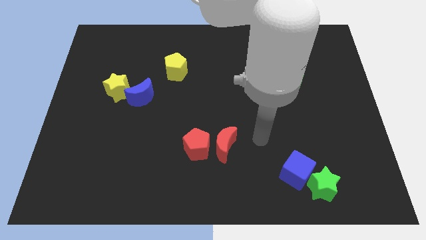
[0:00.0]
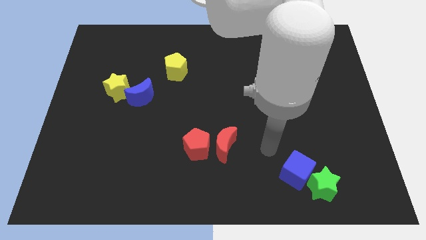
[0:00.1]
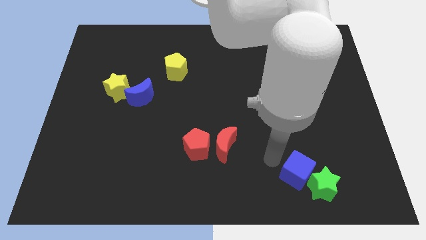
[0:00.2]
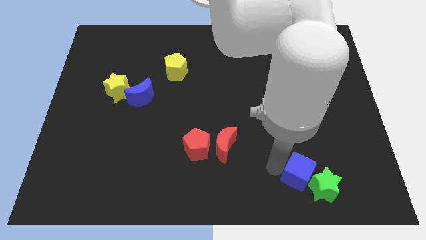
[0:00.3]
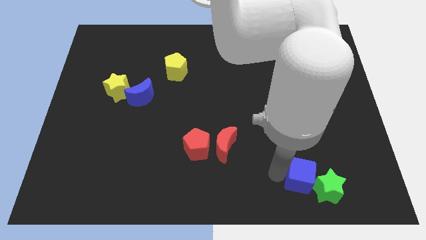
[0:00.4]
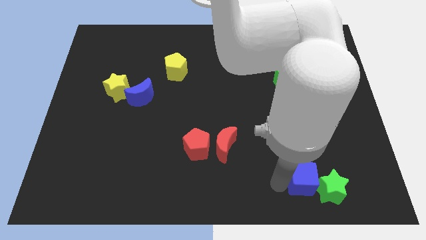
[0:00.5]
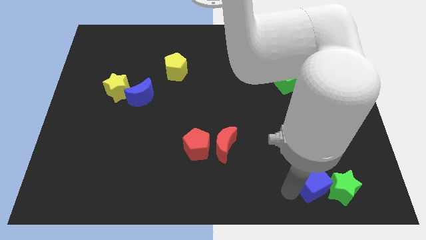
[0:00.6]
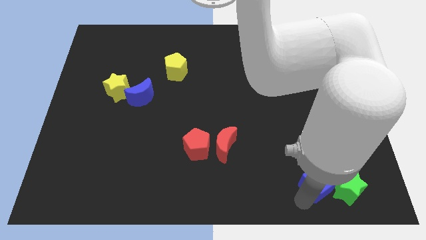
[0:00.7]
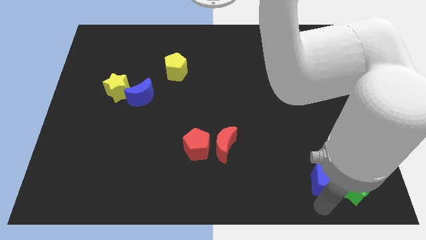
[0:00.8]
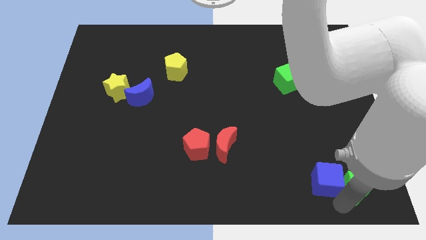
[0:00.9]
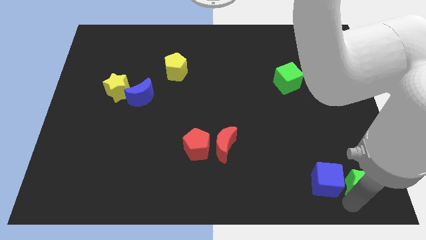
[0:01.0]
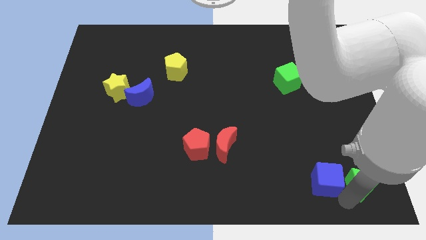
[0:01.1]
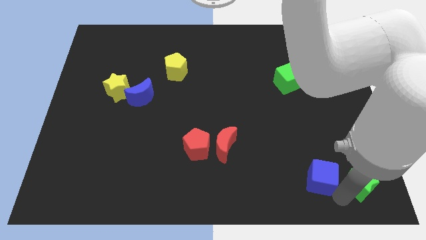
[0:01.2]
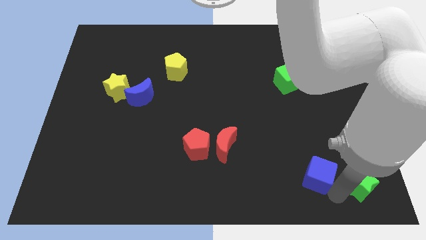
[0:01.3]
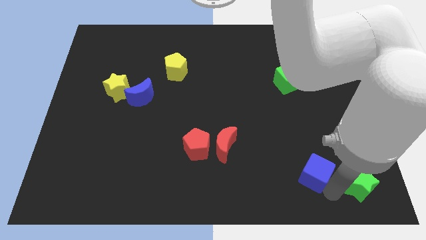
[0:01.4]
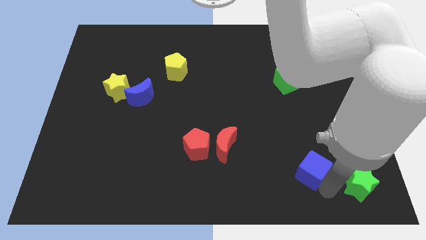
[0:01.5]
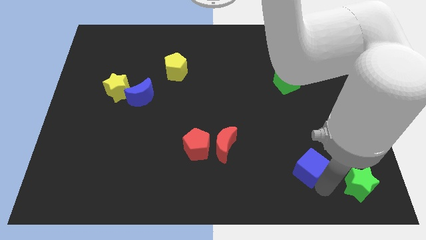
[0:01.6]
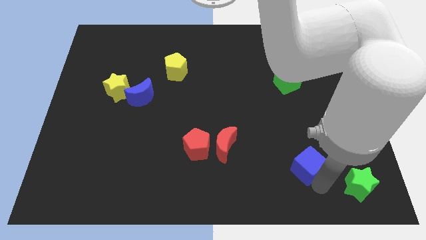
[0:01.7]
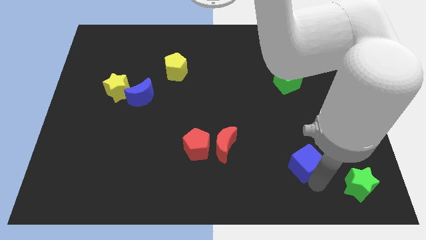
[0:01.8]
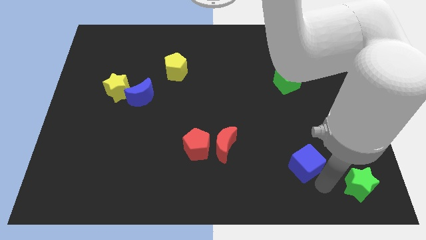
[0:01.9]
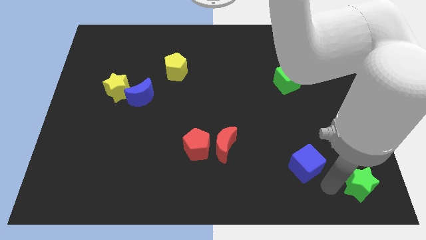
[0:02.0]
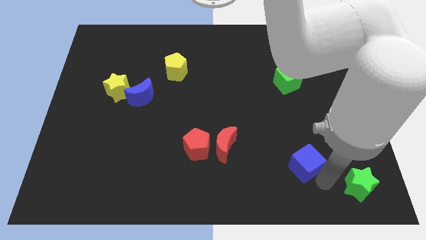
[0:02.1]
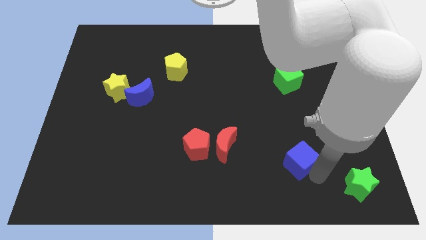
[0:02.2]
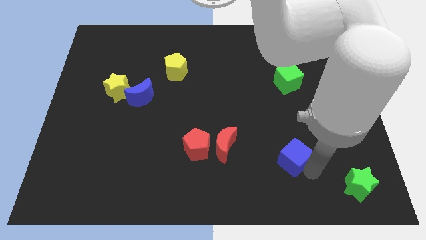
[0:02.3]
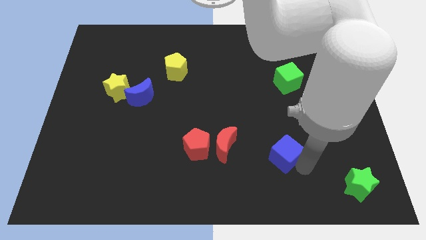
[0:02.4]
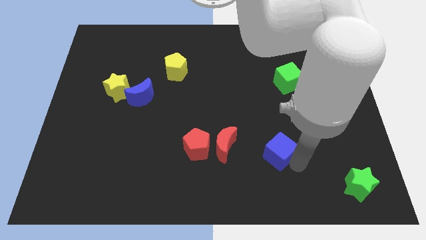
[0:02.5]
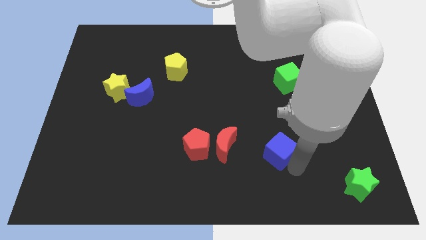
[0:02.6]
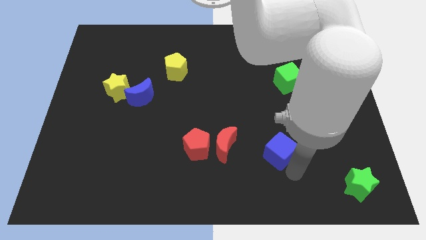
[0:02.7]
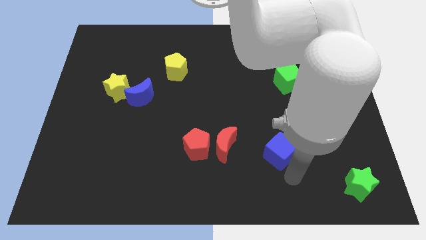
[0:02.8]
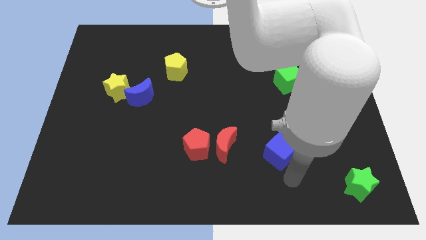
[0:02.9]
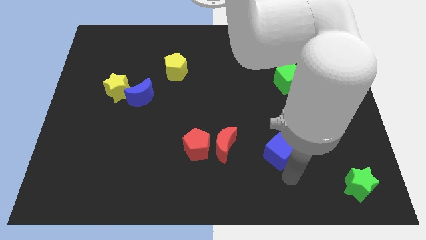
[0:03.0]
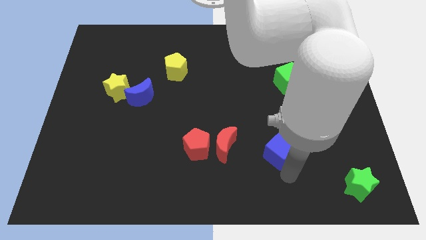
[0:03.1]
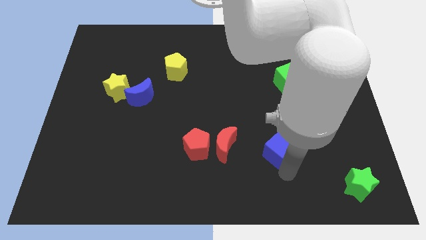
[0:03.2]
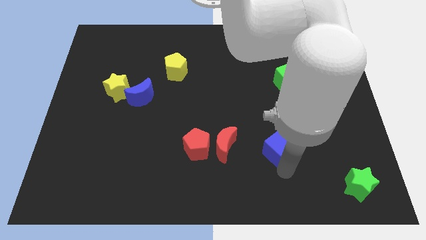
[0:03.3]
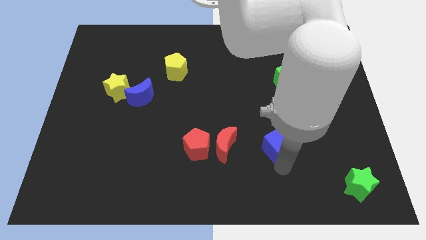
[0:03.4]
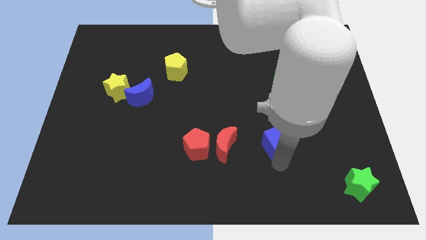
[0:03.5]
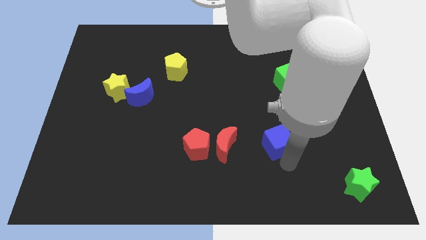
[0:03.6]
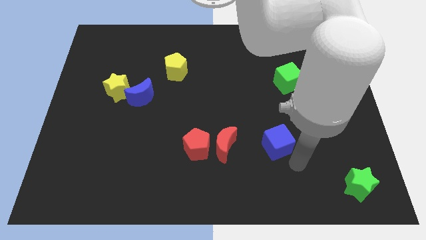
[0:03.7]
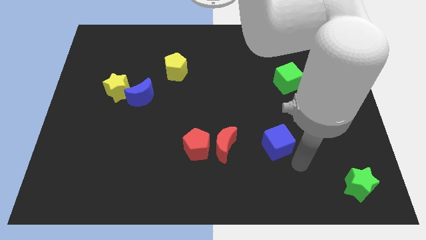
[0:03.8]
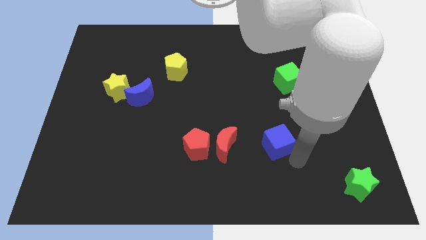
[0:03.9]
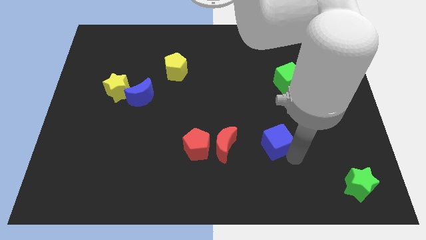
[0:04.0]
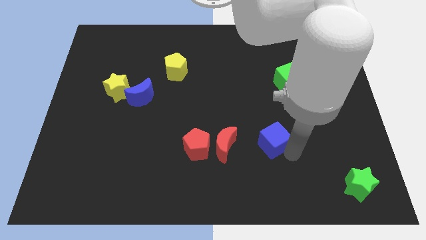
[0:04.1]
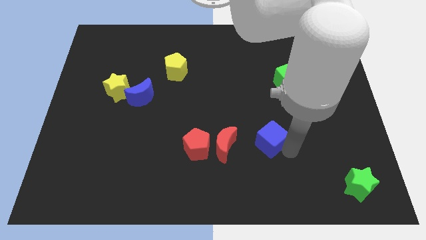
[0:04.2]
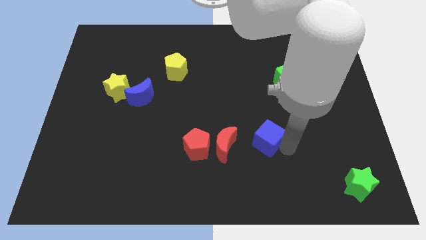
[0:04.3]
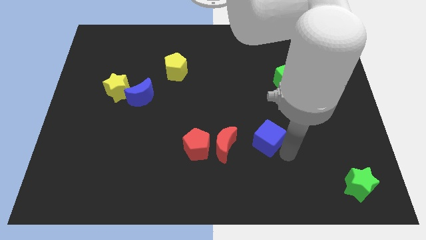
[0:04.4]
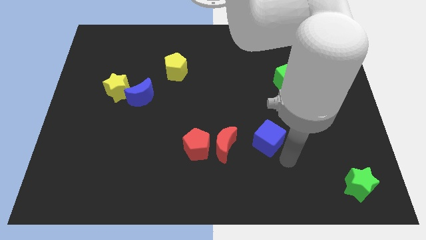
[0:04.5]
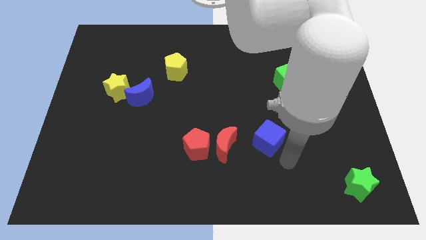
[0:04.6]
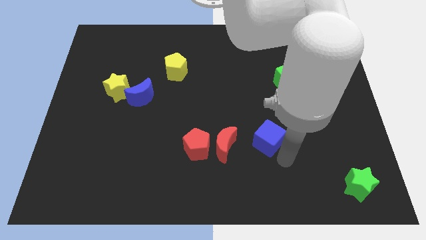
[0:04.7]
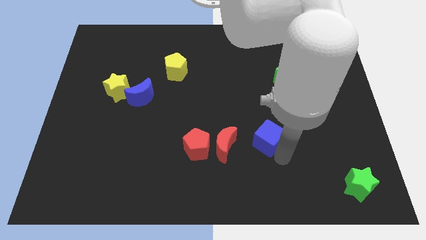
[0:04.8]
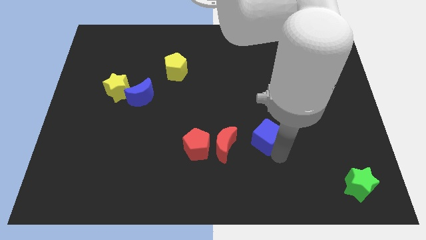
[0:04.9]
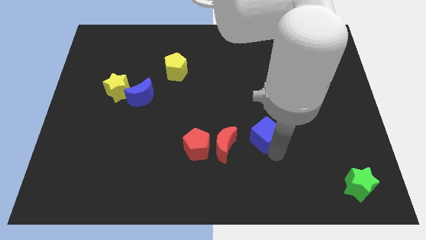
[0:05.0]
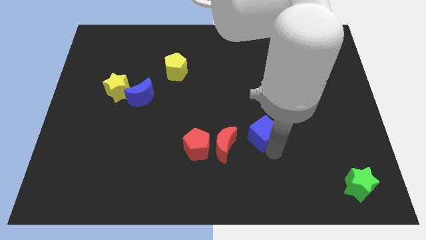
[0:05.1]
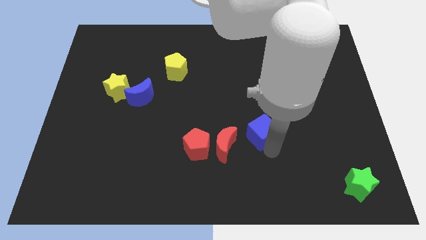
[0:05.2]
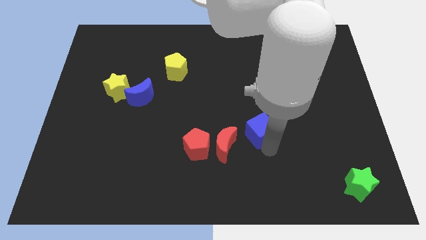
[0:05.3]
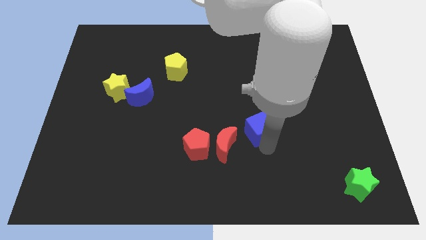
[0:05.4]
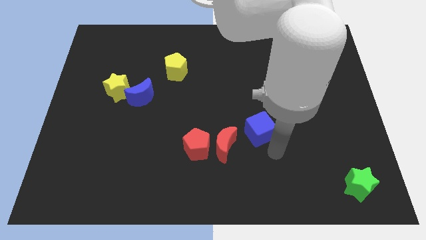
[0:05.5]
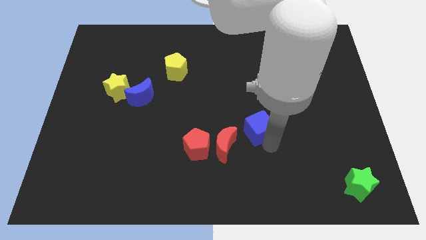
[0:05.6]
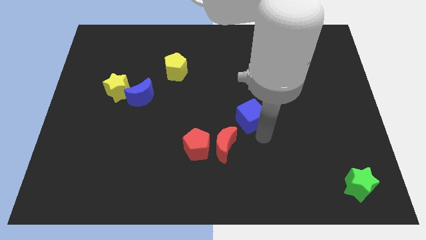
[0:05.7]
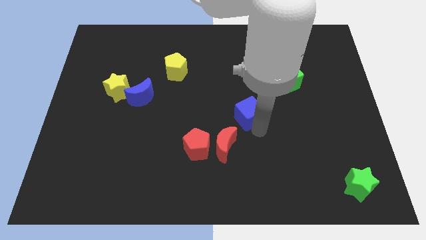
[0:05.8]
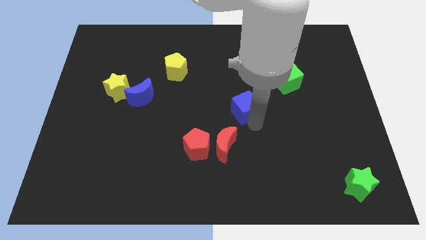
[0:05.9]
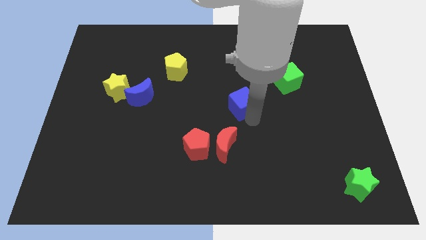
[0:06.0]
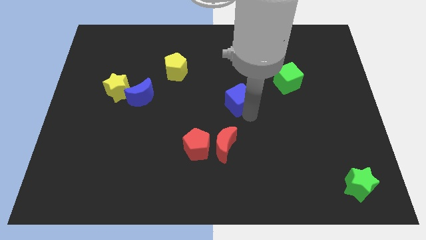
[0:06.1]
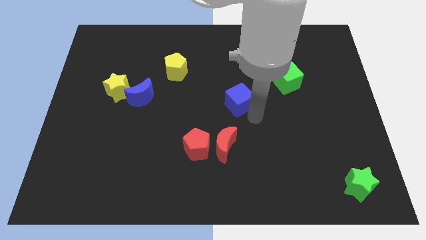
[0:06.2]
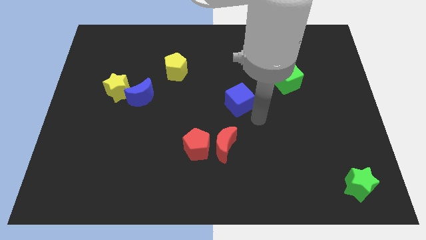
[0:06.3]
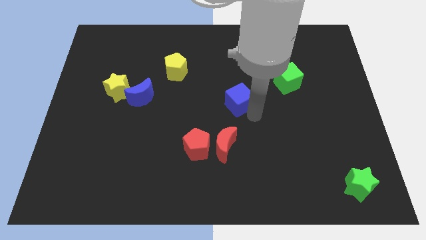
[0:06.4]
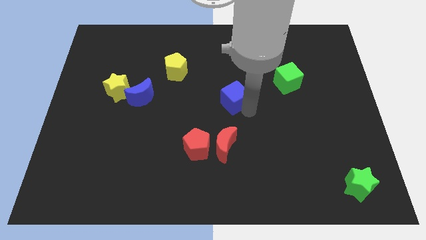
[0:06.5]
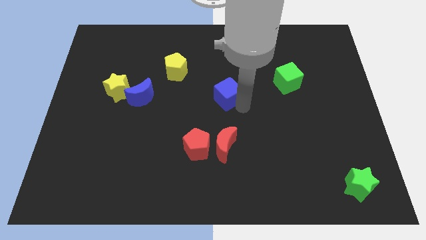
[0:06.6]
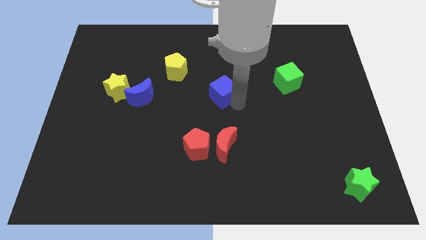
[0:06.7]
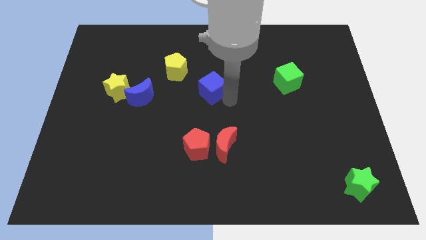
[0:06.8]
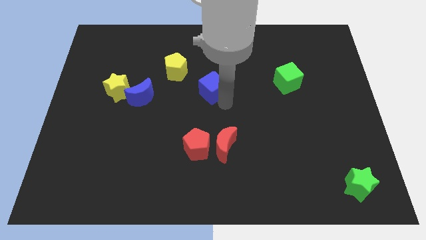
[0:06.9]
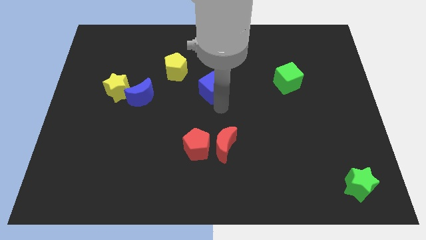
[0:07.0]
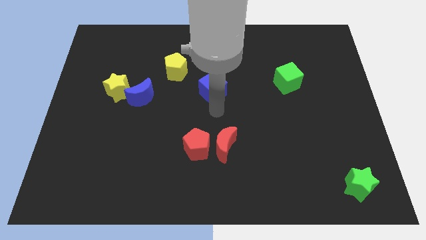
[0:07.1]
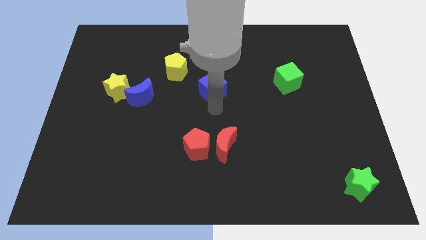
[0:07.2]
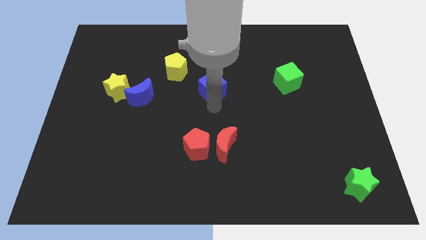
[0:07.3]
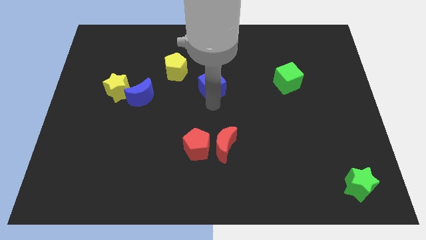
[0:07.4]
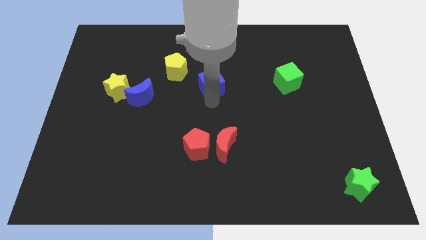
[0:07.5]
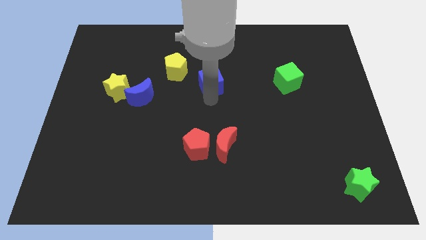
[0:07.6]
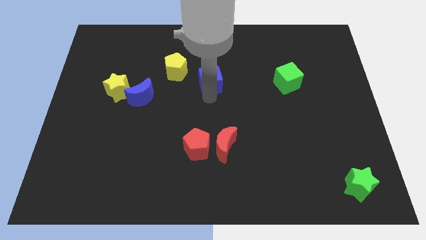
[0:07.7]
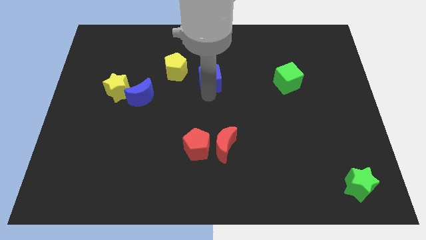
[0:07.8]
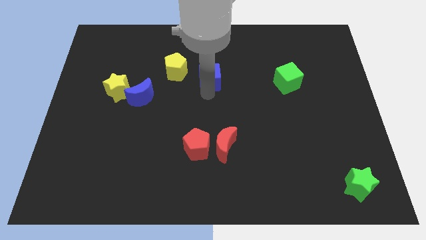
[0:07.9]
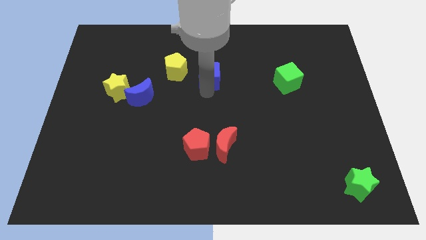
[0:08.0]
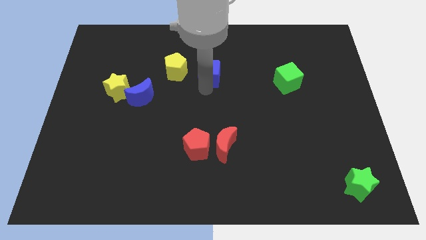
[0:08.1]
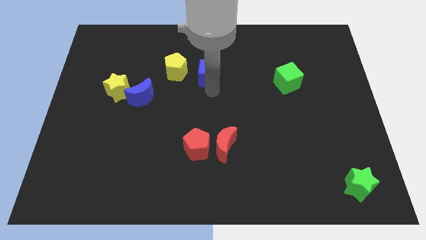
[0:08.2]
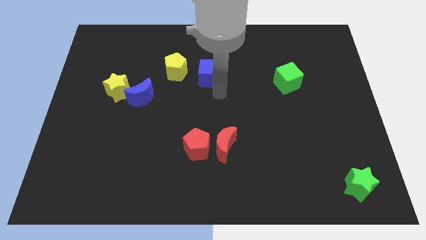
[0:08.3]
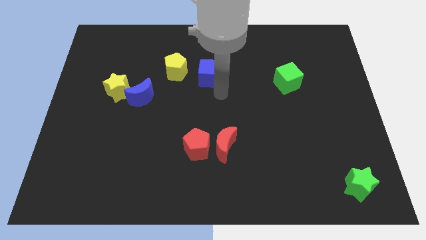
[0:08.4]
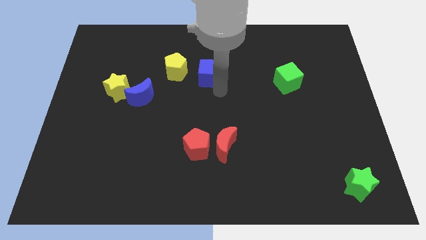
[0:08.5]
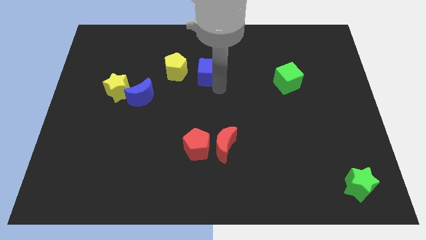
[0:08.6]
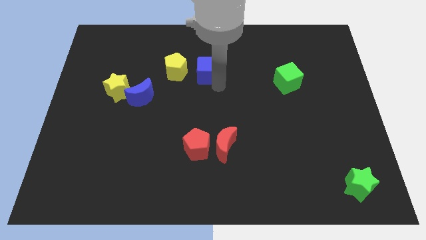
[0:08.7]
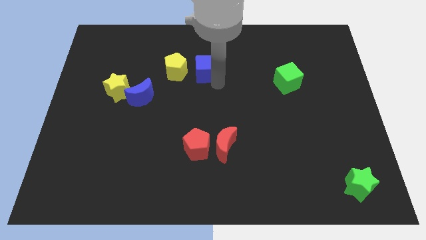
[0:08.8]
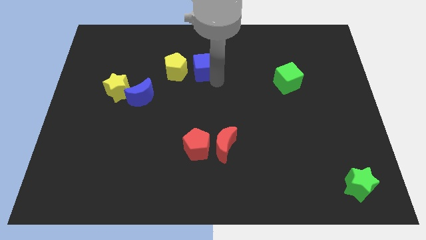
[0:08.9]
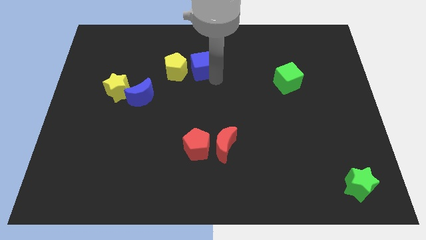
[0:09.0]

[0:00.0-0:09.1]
move the blue cube to the top right side of the yellow pentagon
